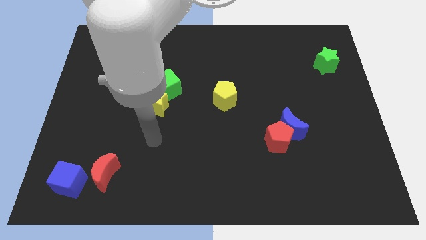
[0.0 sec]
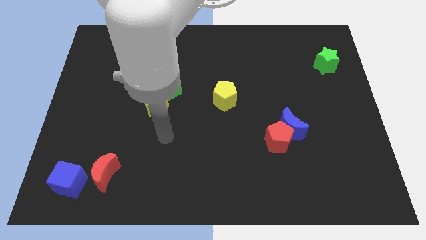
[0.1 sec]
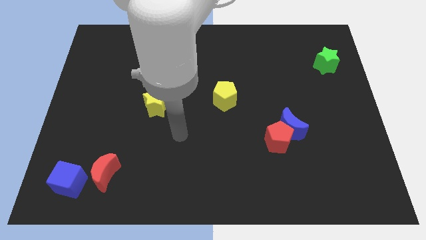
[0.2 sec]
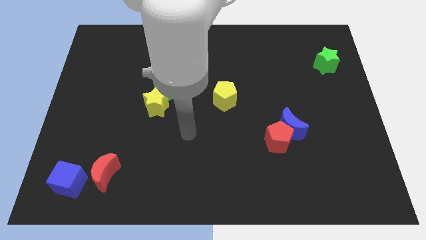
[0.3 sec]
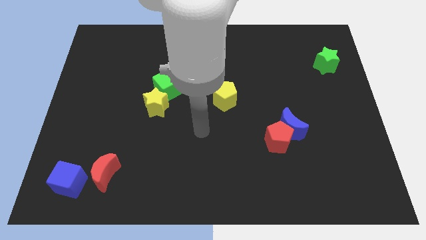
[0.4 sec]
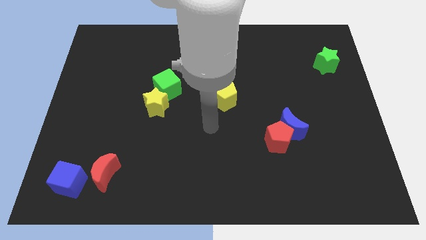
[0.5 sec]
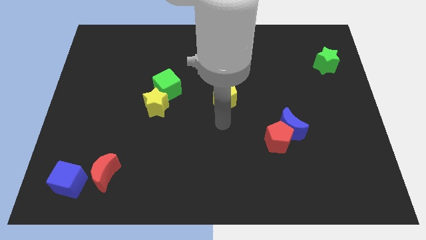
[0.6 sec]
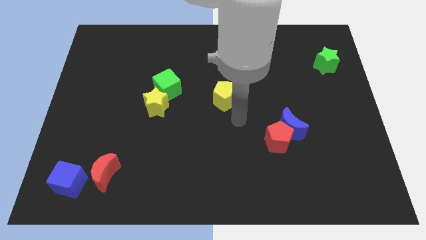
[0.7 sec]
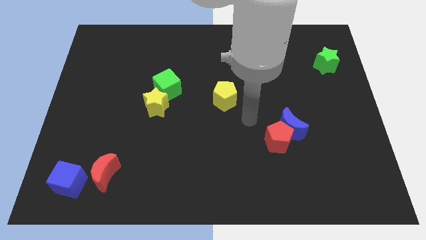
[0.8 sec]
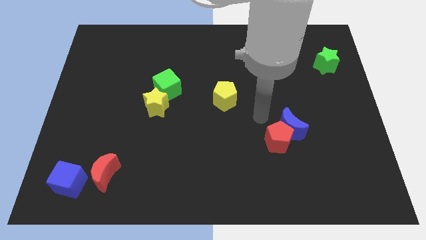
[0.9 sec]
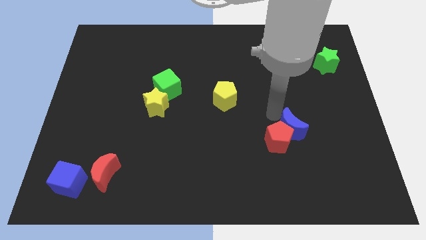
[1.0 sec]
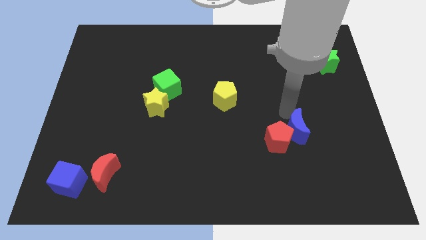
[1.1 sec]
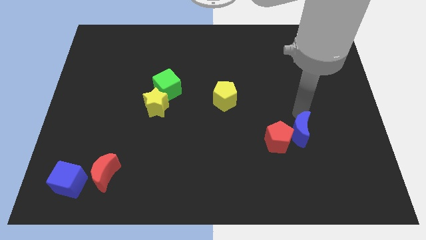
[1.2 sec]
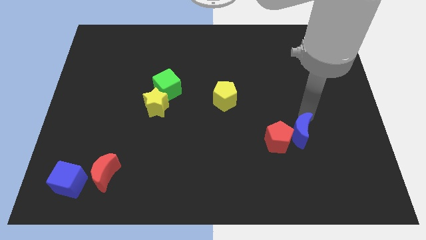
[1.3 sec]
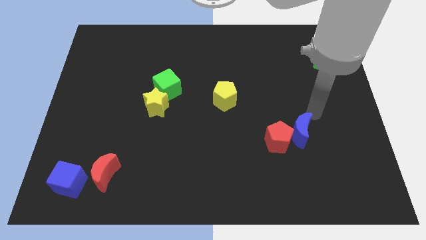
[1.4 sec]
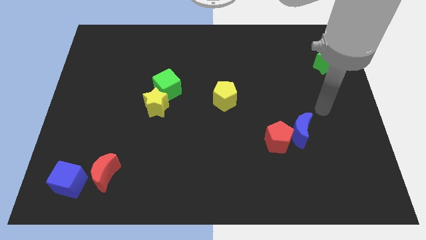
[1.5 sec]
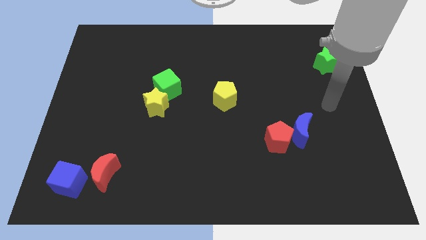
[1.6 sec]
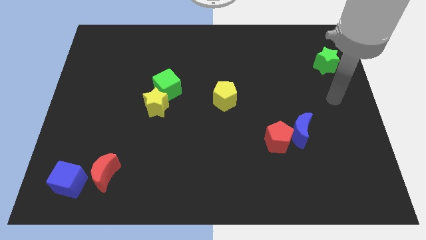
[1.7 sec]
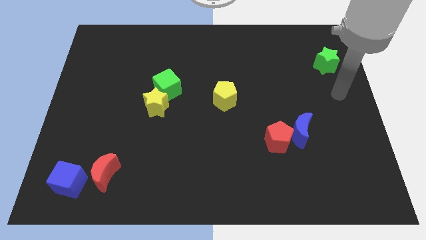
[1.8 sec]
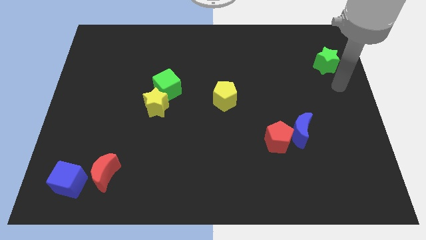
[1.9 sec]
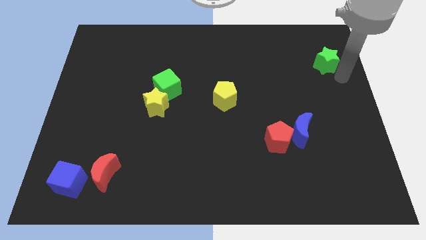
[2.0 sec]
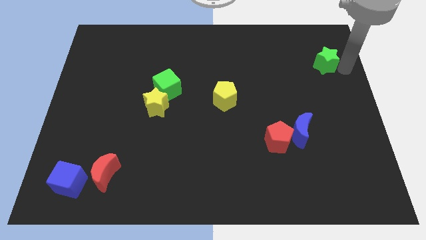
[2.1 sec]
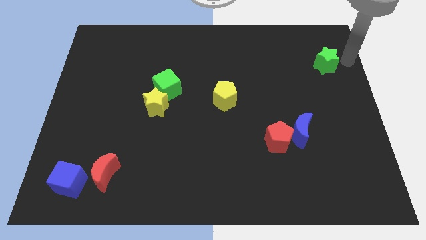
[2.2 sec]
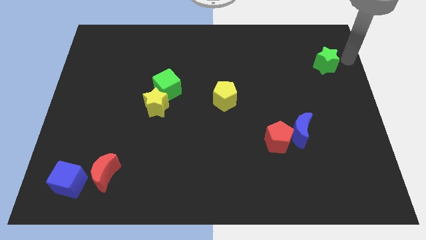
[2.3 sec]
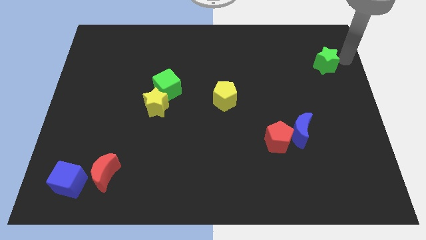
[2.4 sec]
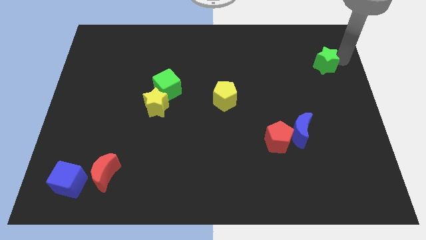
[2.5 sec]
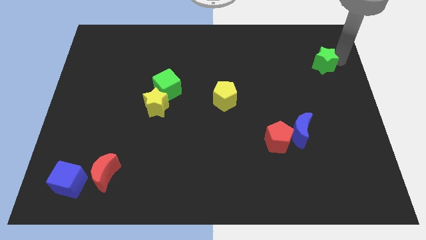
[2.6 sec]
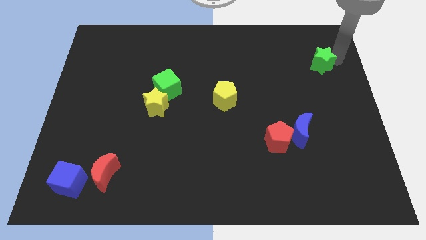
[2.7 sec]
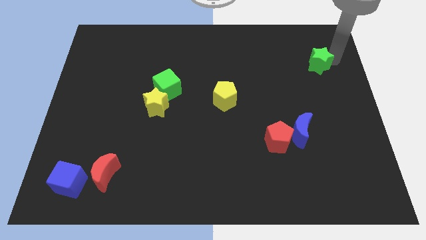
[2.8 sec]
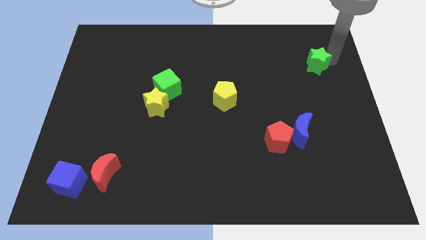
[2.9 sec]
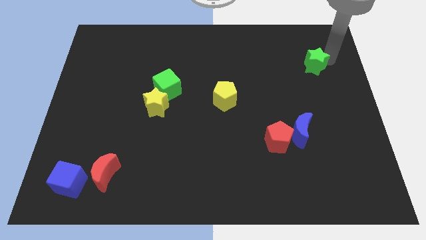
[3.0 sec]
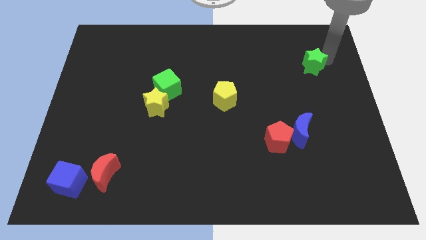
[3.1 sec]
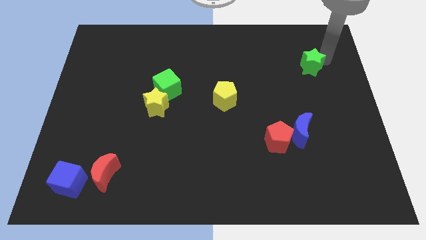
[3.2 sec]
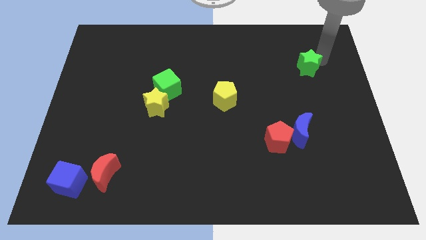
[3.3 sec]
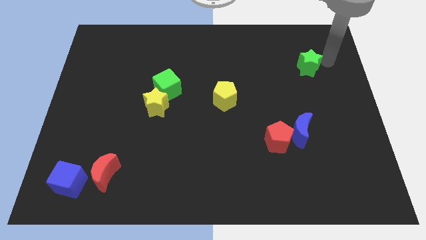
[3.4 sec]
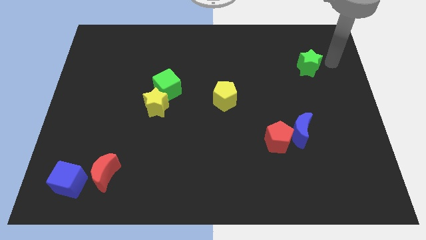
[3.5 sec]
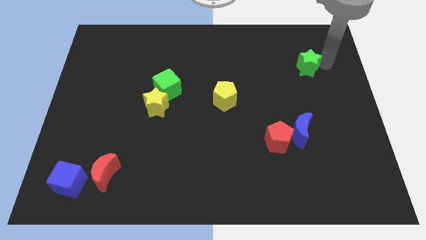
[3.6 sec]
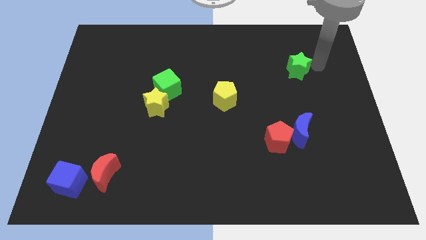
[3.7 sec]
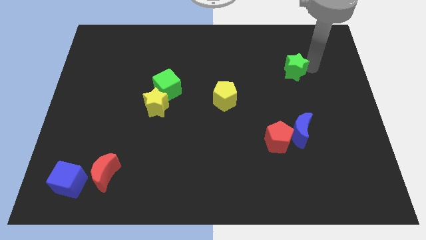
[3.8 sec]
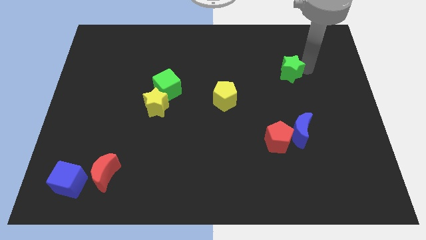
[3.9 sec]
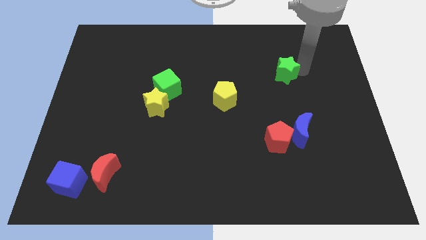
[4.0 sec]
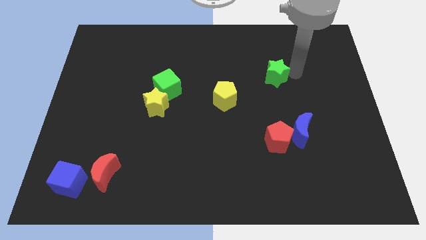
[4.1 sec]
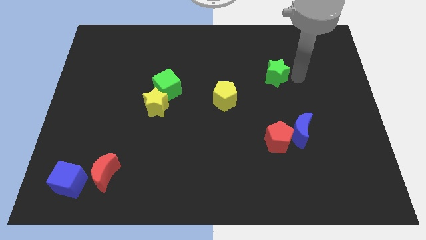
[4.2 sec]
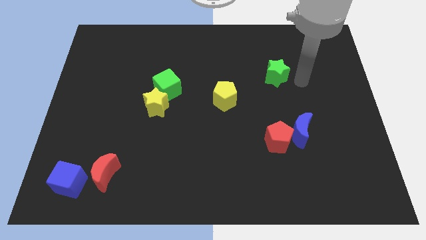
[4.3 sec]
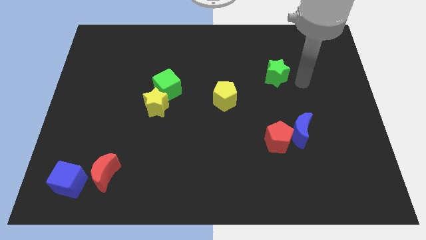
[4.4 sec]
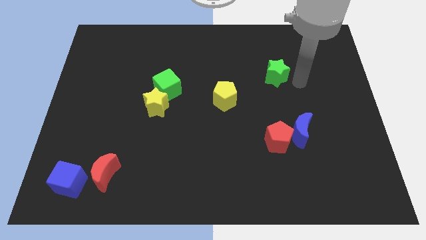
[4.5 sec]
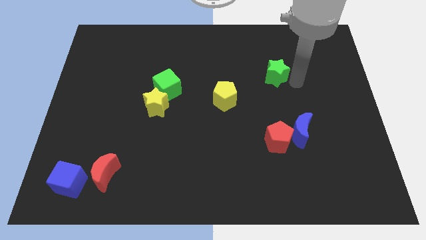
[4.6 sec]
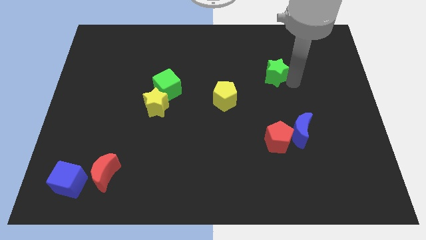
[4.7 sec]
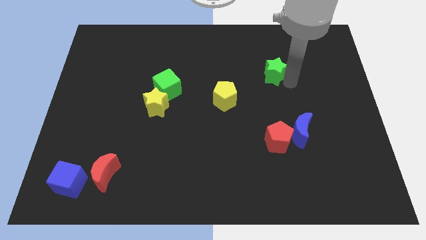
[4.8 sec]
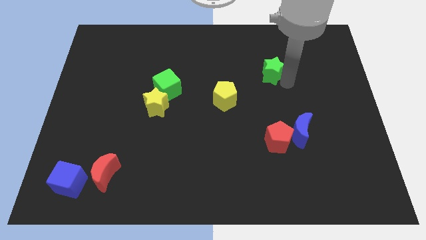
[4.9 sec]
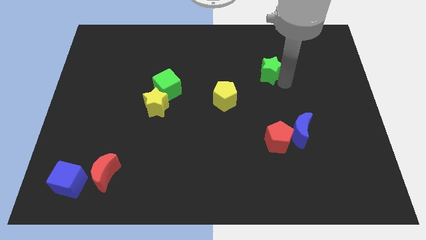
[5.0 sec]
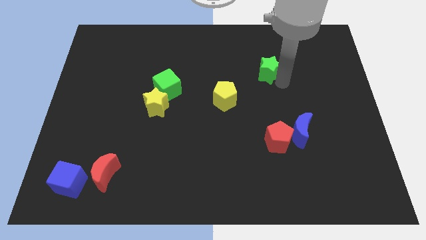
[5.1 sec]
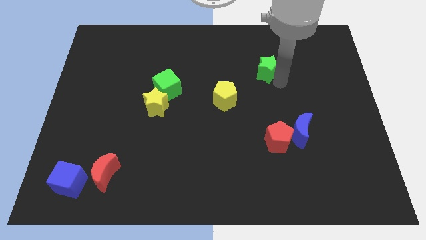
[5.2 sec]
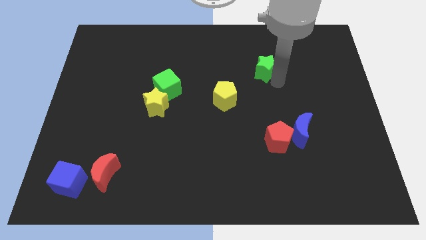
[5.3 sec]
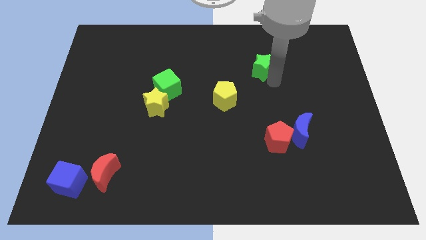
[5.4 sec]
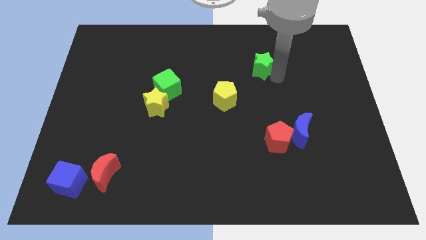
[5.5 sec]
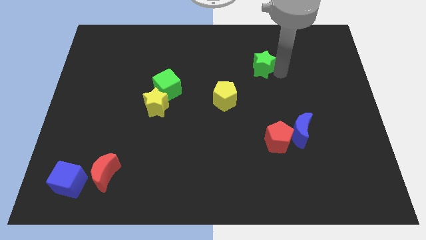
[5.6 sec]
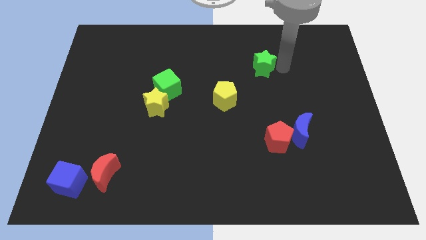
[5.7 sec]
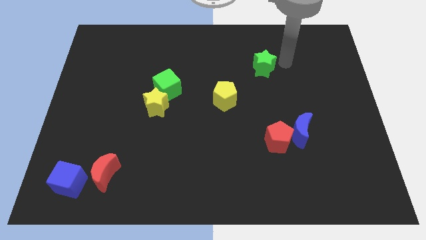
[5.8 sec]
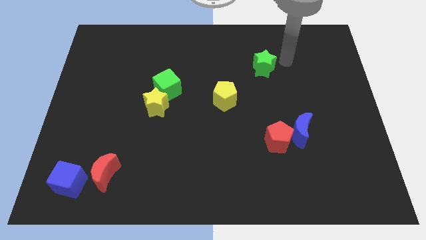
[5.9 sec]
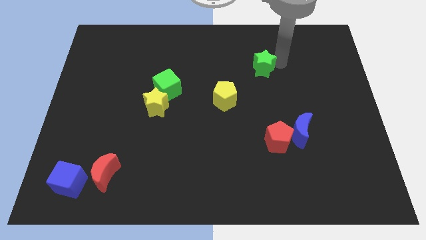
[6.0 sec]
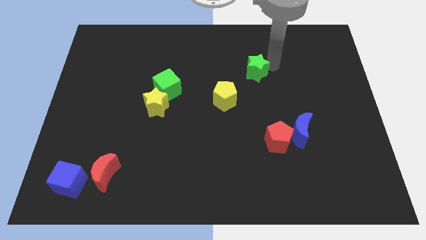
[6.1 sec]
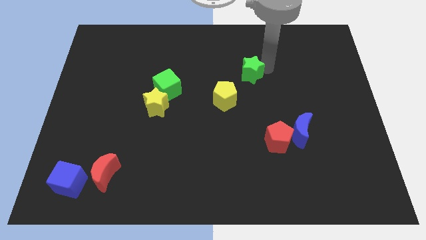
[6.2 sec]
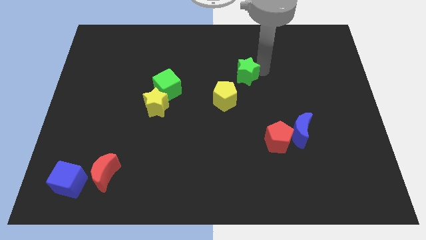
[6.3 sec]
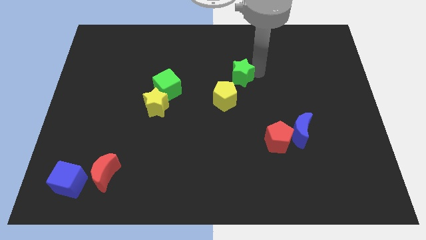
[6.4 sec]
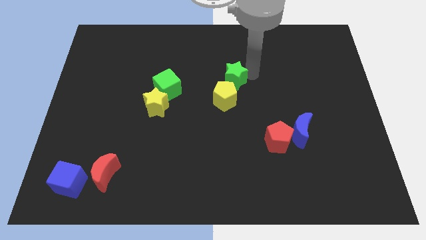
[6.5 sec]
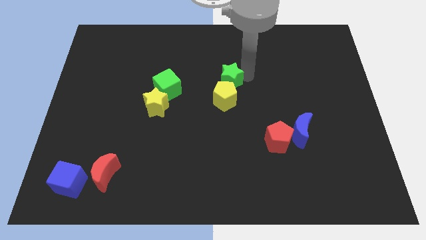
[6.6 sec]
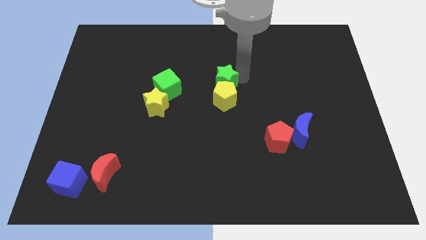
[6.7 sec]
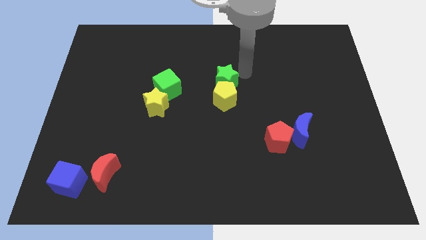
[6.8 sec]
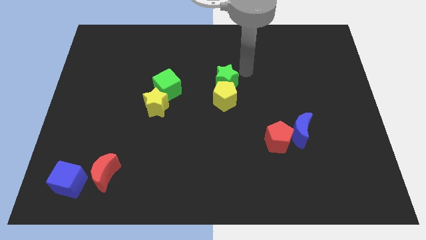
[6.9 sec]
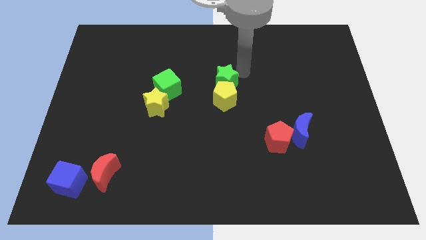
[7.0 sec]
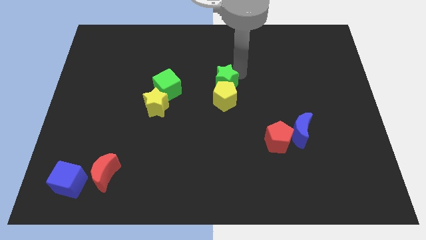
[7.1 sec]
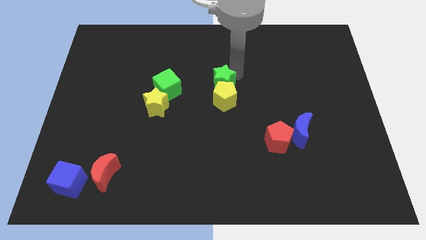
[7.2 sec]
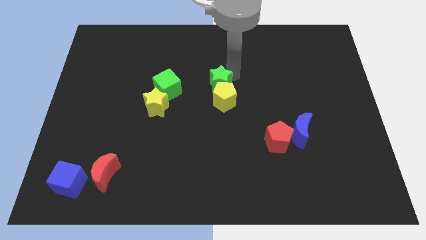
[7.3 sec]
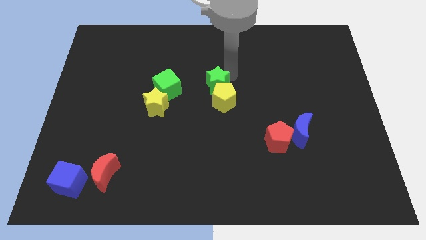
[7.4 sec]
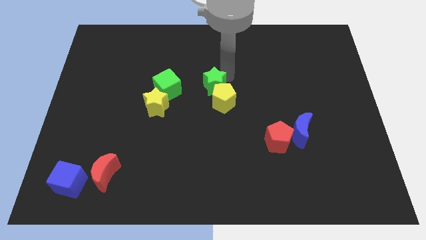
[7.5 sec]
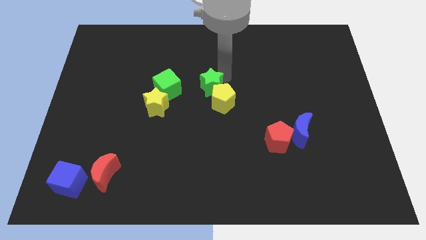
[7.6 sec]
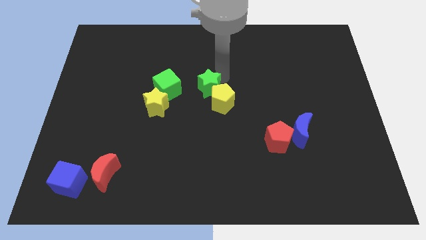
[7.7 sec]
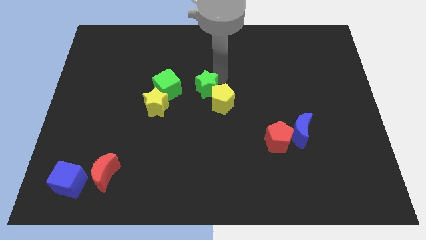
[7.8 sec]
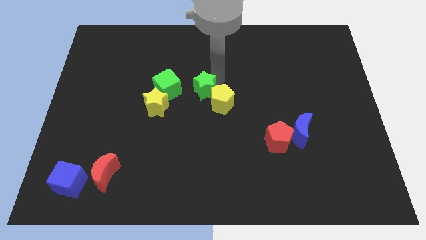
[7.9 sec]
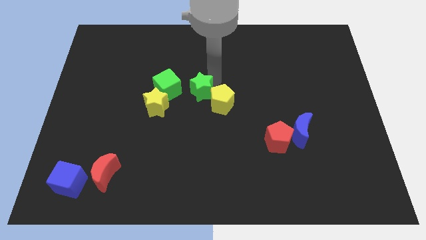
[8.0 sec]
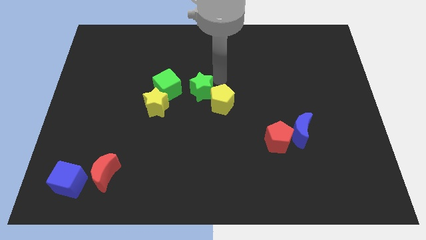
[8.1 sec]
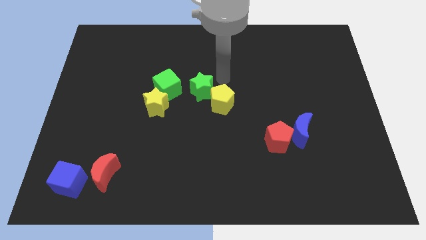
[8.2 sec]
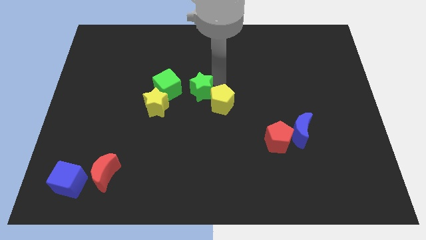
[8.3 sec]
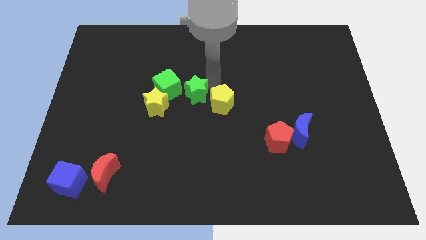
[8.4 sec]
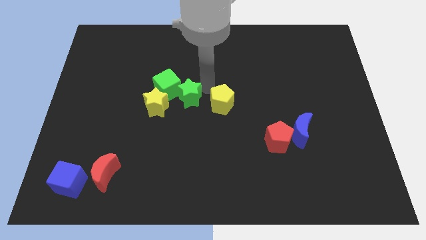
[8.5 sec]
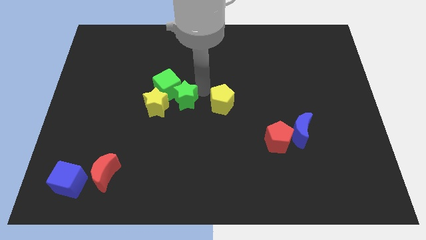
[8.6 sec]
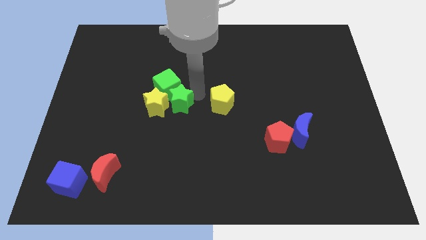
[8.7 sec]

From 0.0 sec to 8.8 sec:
slide the green star towards the yellow star
